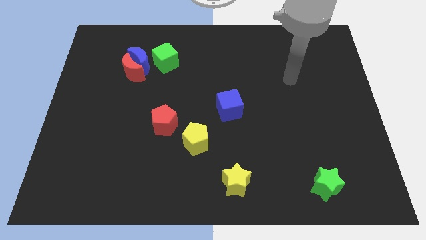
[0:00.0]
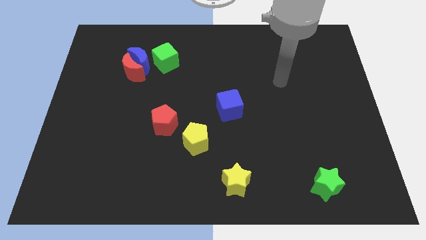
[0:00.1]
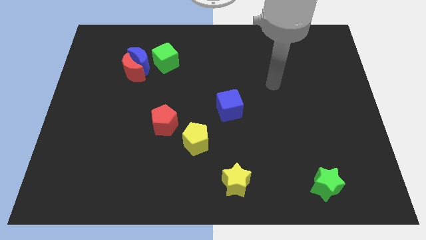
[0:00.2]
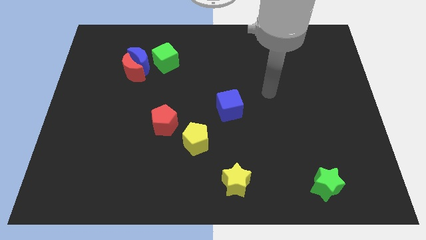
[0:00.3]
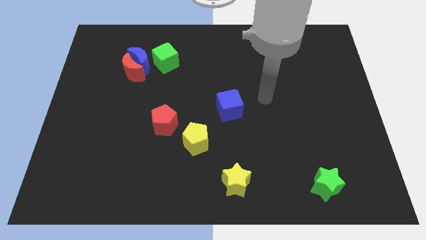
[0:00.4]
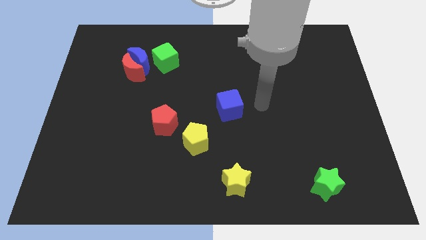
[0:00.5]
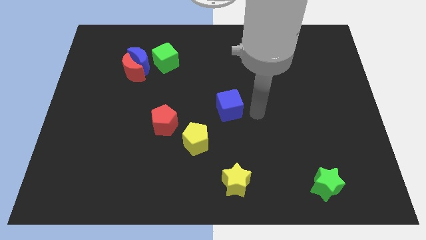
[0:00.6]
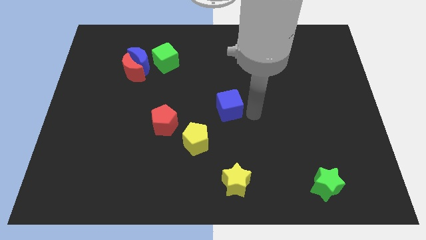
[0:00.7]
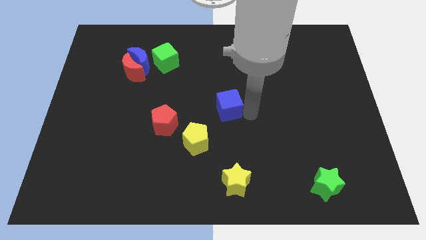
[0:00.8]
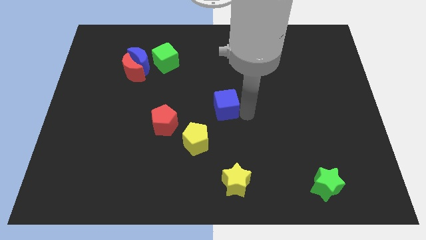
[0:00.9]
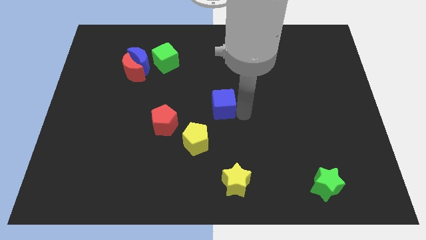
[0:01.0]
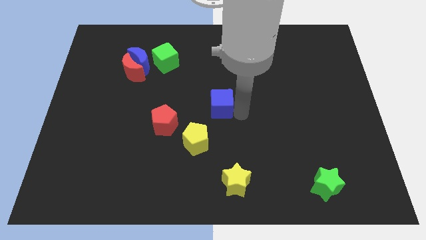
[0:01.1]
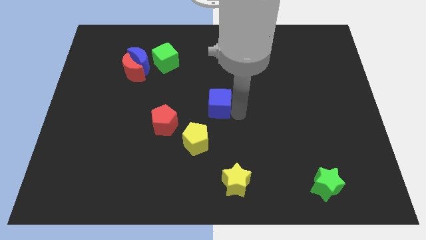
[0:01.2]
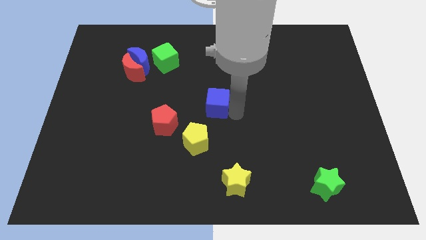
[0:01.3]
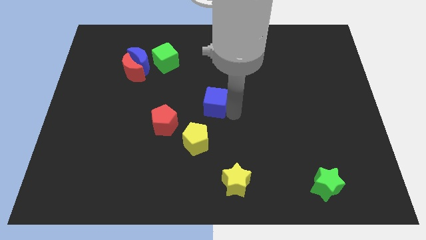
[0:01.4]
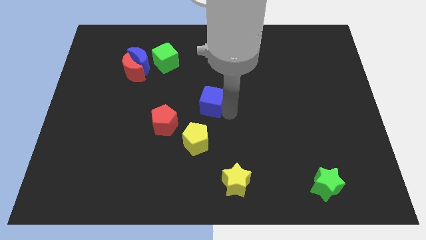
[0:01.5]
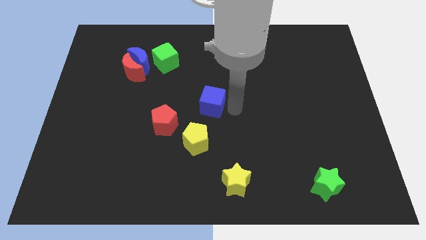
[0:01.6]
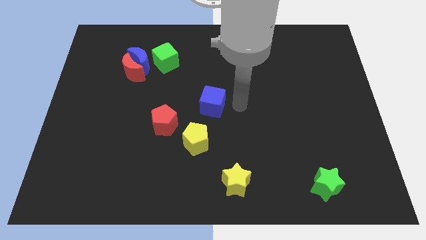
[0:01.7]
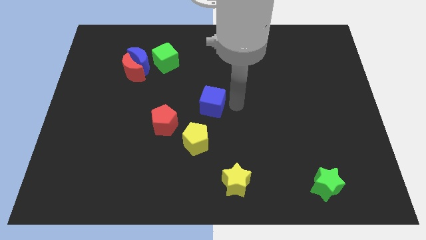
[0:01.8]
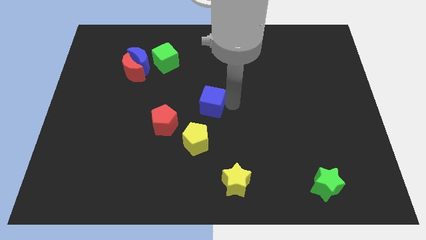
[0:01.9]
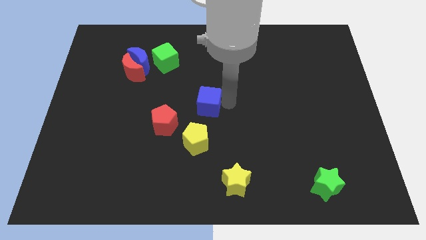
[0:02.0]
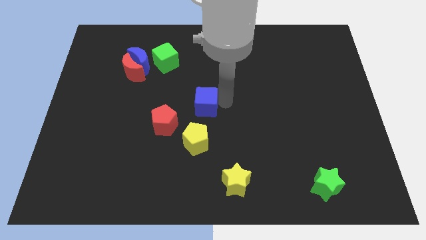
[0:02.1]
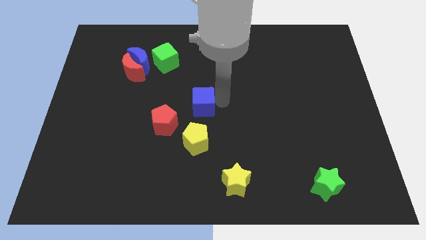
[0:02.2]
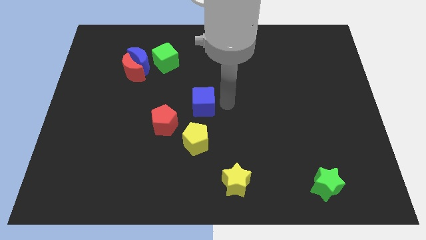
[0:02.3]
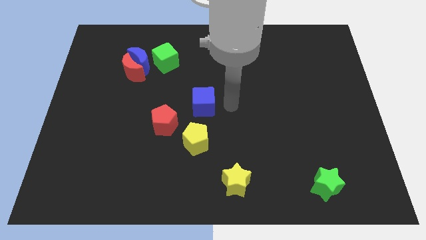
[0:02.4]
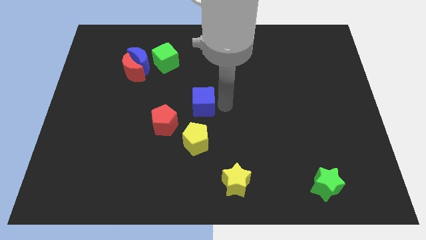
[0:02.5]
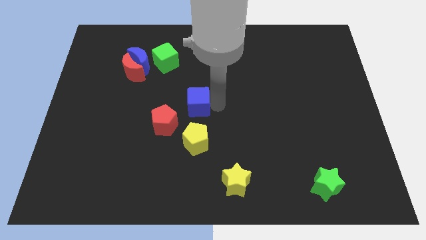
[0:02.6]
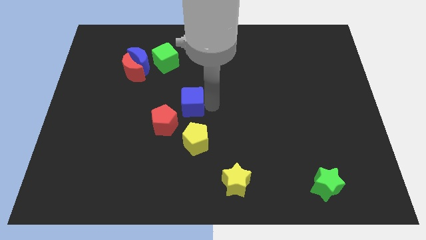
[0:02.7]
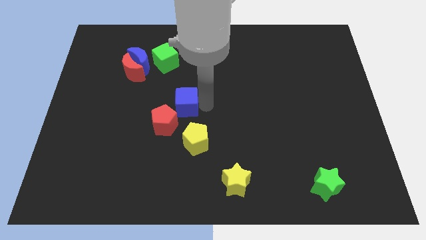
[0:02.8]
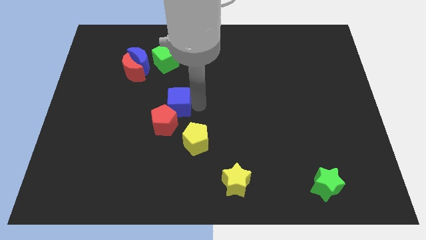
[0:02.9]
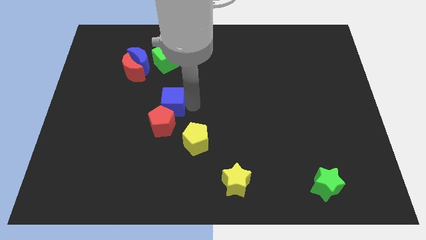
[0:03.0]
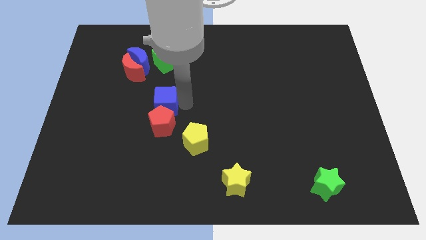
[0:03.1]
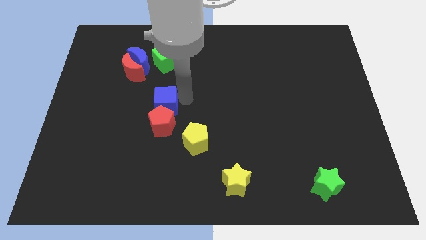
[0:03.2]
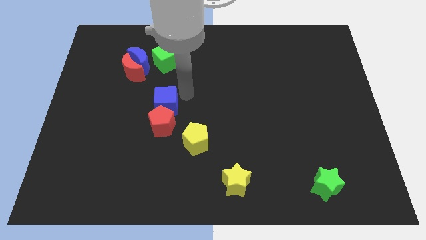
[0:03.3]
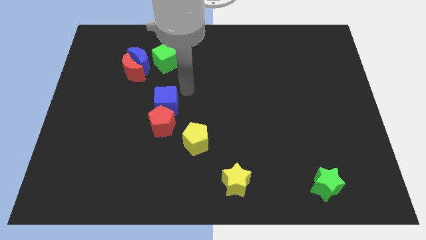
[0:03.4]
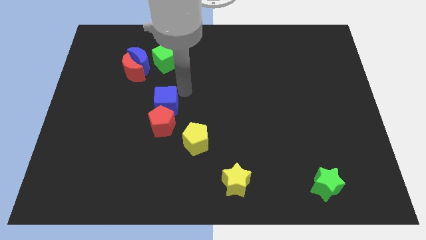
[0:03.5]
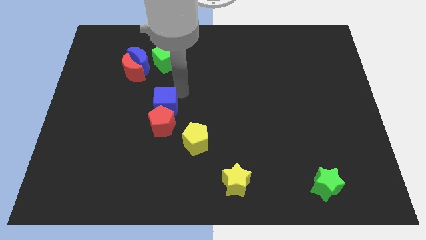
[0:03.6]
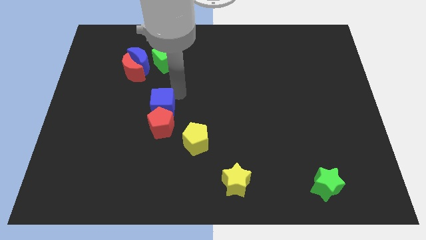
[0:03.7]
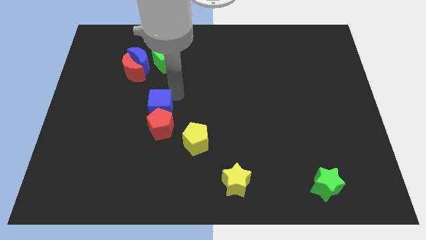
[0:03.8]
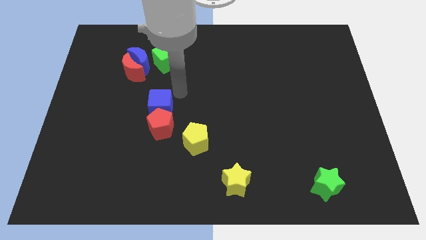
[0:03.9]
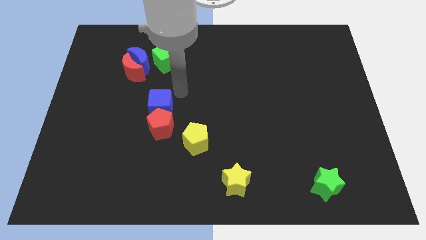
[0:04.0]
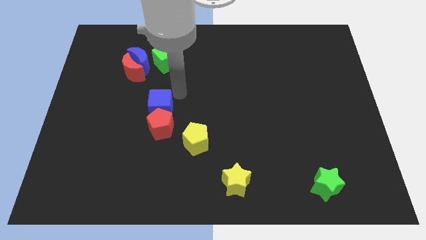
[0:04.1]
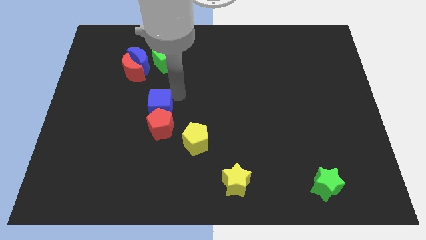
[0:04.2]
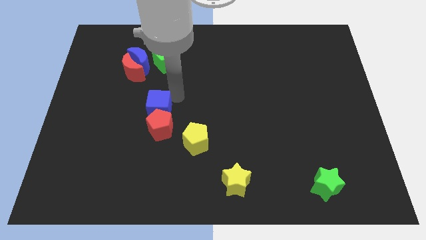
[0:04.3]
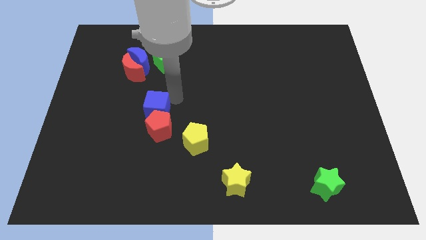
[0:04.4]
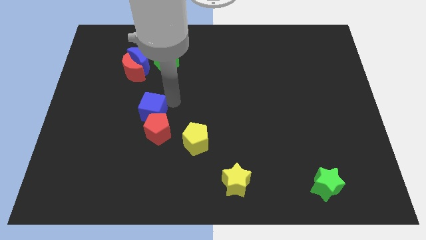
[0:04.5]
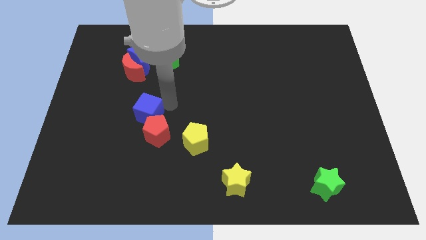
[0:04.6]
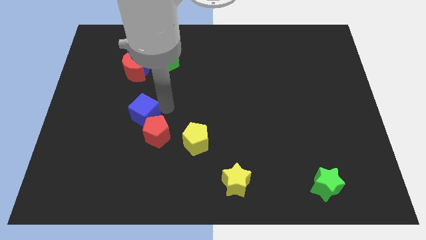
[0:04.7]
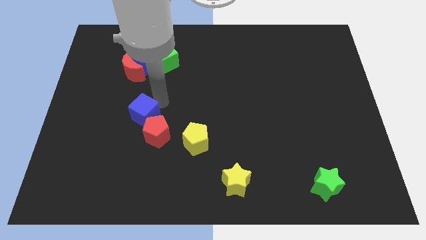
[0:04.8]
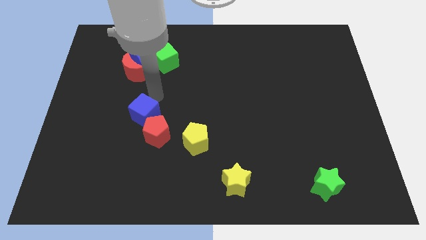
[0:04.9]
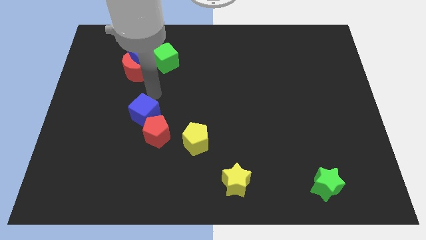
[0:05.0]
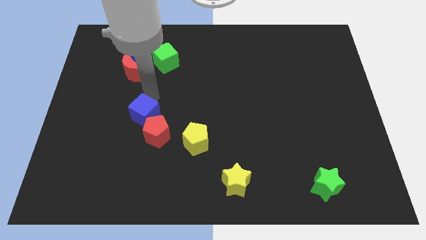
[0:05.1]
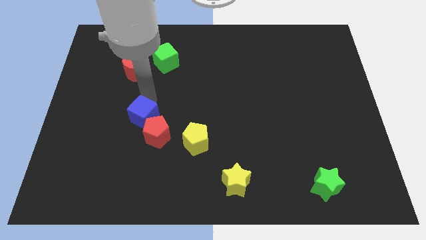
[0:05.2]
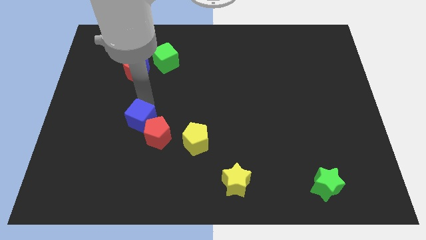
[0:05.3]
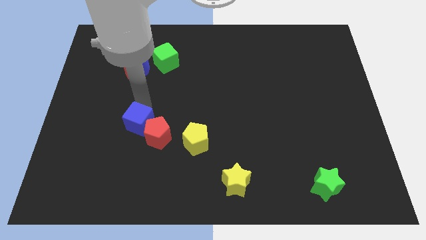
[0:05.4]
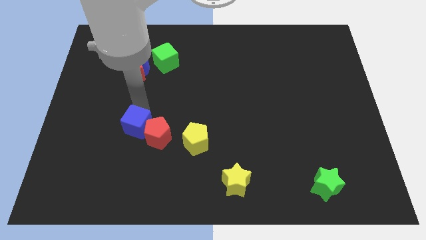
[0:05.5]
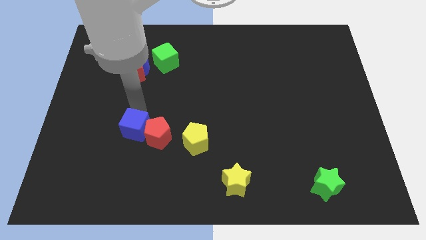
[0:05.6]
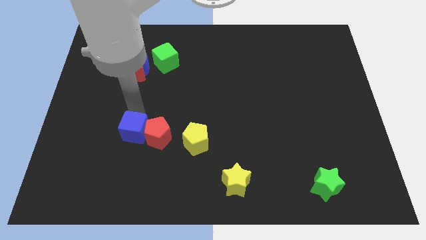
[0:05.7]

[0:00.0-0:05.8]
move the blue cube diagonally down and to the left of the red pentagon
